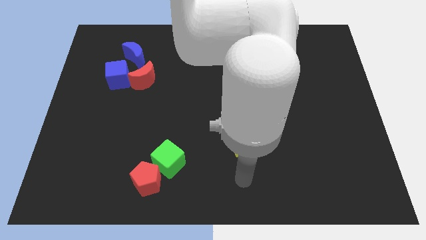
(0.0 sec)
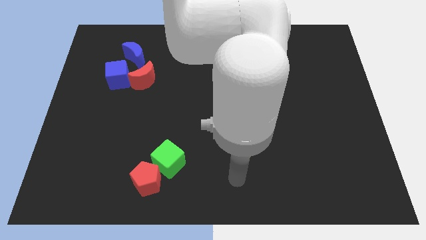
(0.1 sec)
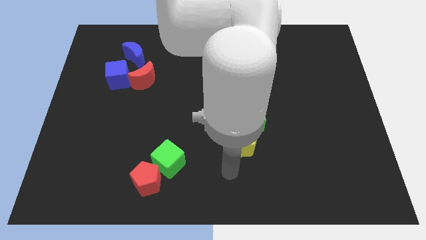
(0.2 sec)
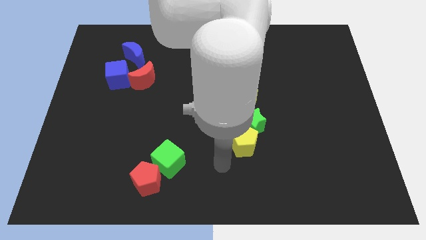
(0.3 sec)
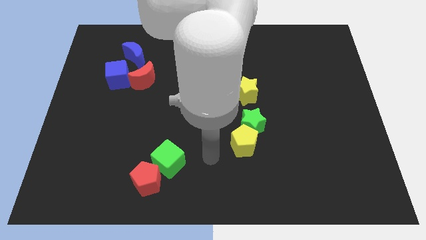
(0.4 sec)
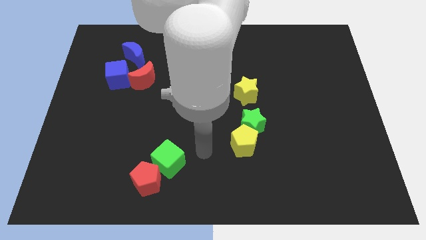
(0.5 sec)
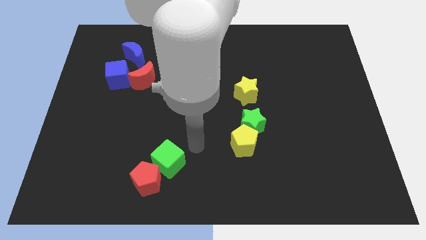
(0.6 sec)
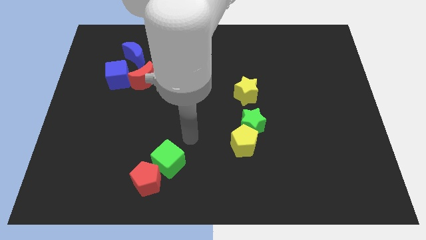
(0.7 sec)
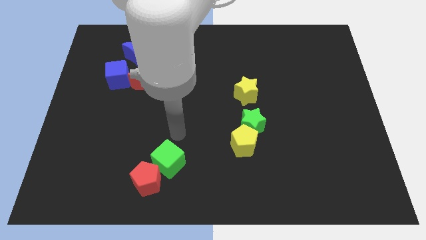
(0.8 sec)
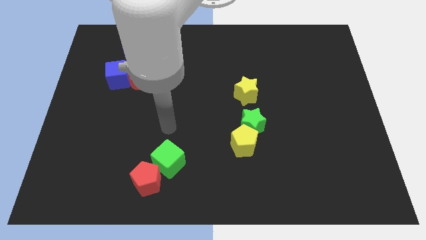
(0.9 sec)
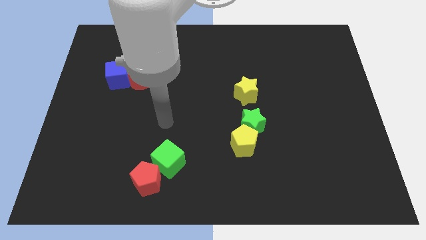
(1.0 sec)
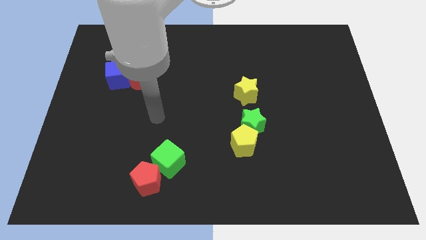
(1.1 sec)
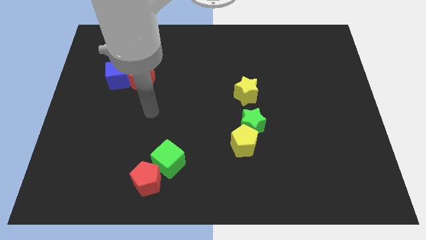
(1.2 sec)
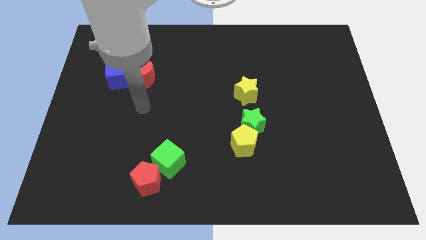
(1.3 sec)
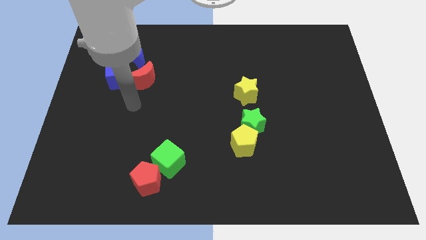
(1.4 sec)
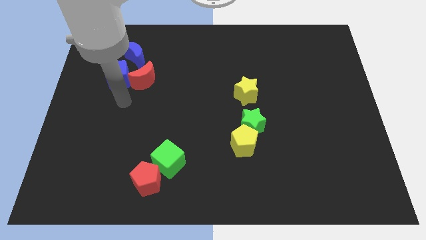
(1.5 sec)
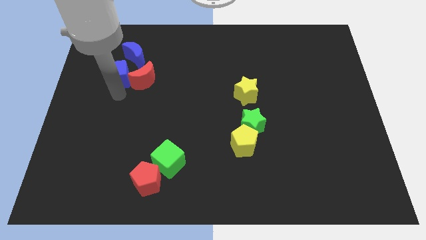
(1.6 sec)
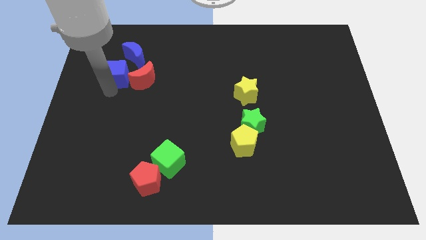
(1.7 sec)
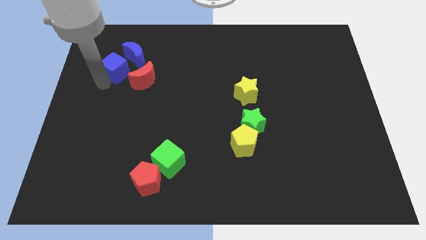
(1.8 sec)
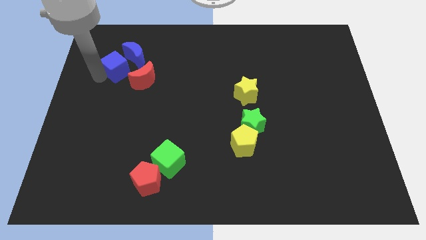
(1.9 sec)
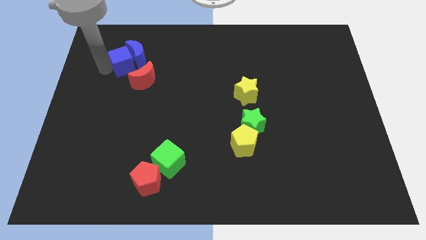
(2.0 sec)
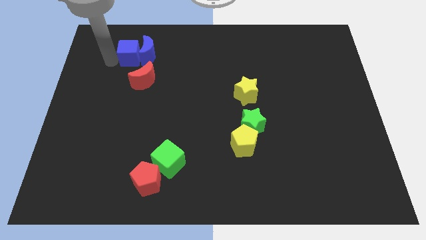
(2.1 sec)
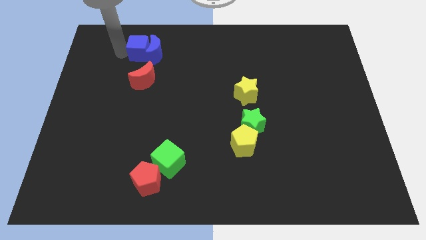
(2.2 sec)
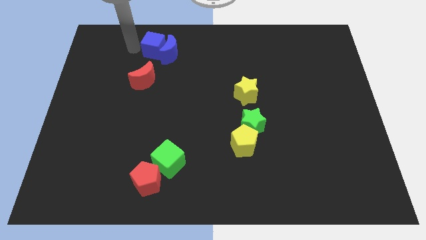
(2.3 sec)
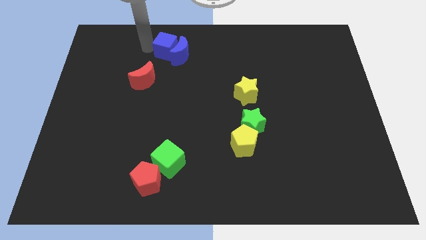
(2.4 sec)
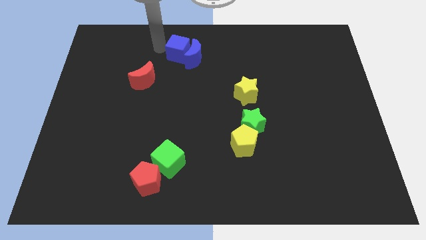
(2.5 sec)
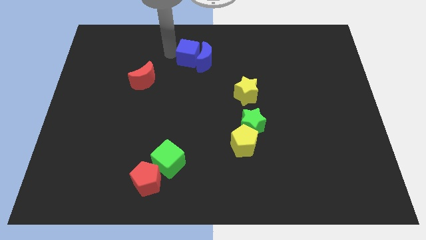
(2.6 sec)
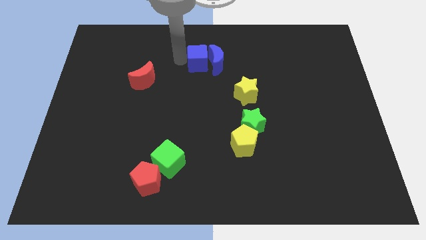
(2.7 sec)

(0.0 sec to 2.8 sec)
move the blue moon right

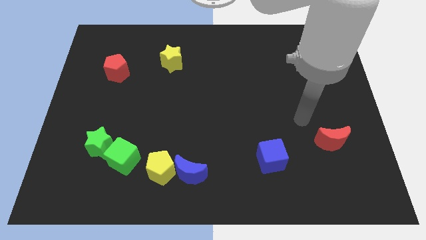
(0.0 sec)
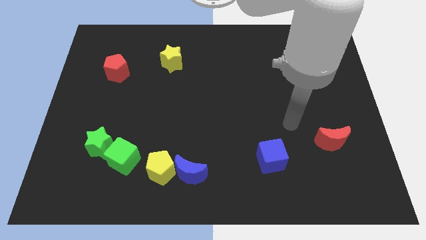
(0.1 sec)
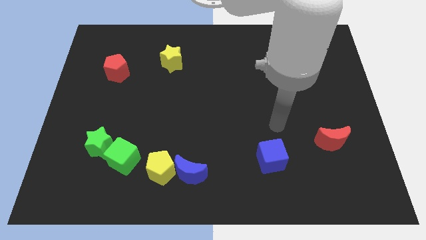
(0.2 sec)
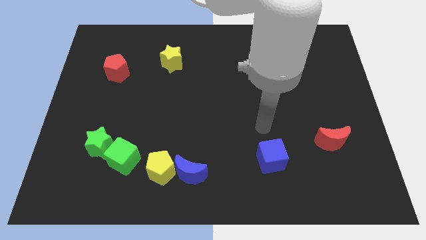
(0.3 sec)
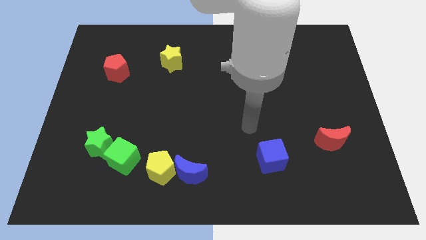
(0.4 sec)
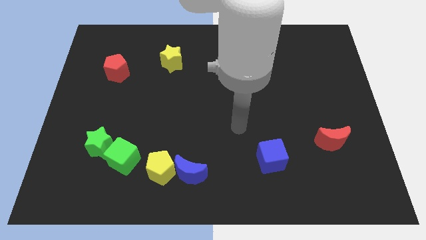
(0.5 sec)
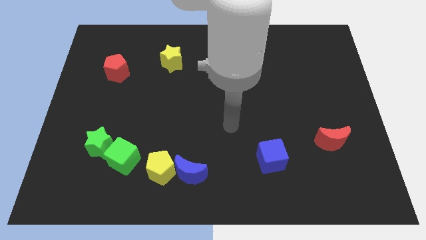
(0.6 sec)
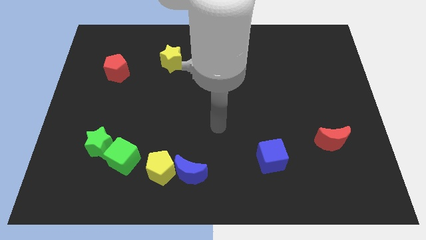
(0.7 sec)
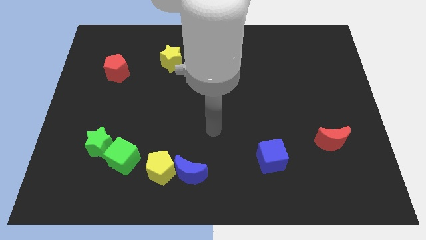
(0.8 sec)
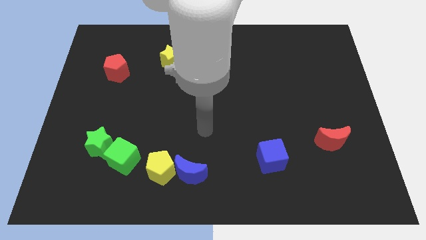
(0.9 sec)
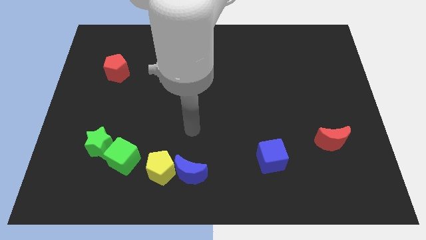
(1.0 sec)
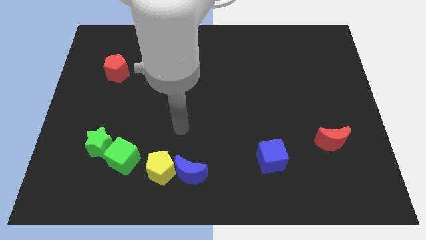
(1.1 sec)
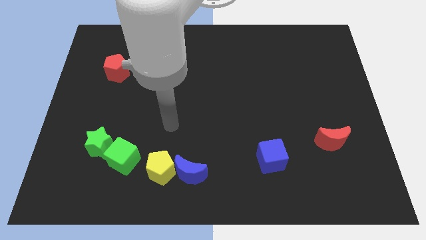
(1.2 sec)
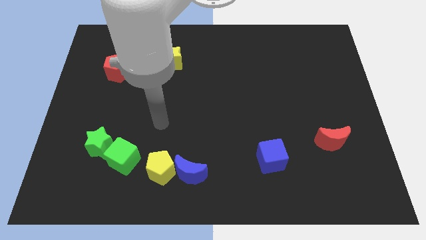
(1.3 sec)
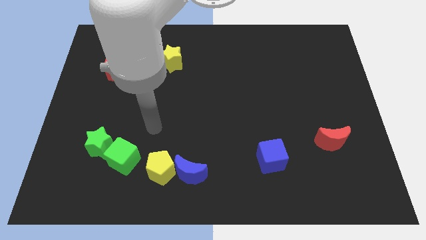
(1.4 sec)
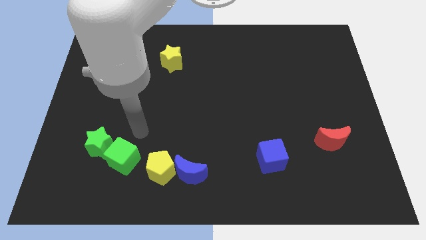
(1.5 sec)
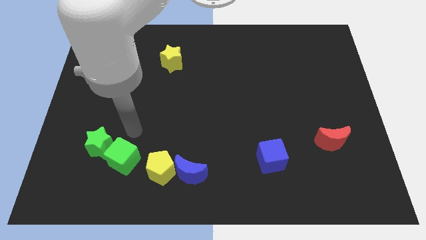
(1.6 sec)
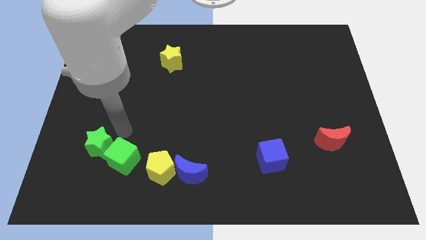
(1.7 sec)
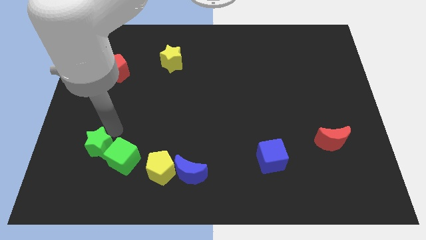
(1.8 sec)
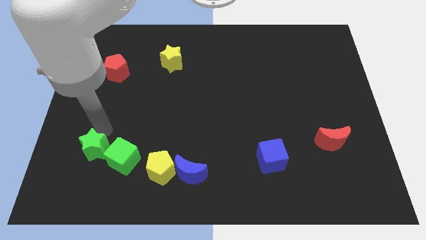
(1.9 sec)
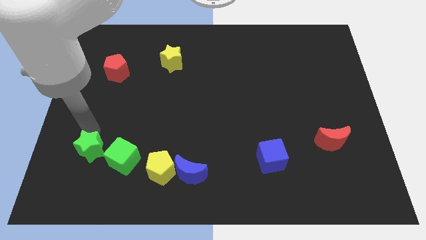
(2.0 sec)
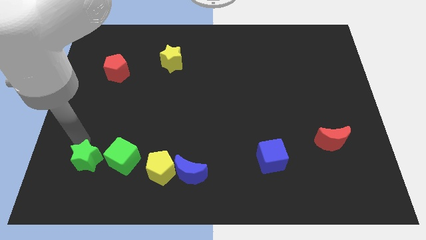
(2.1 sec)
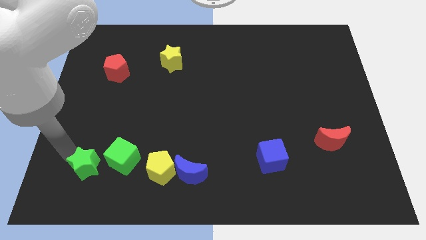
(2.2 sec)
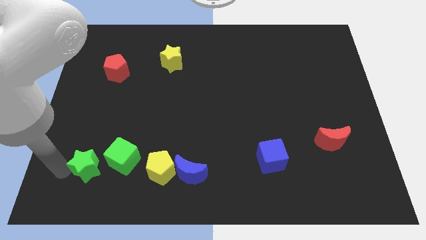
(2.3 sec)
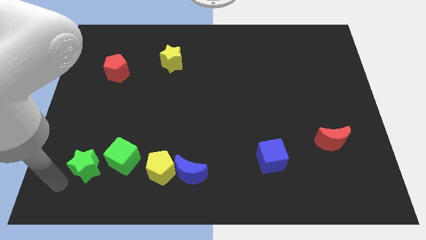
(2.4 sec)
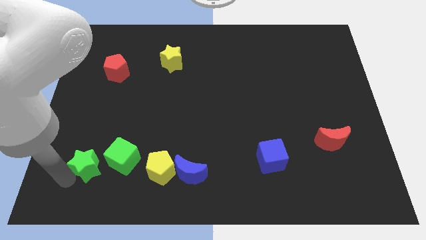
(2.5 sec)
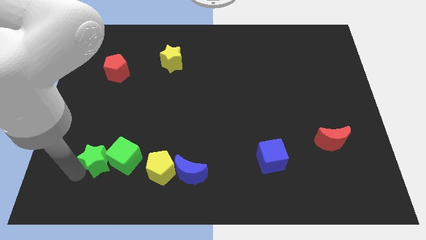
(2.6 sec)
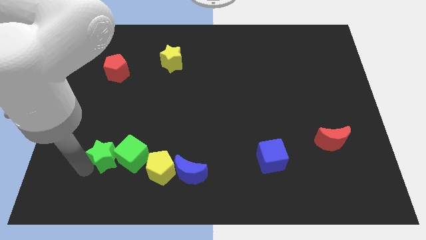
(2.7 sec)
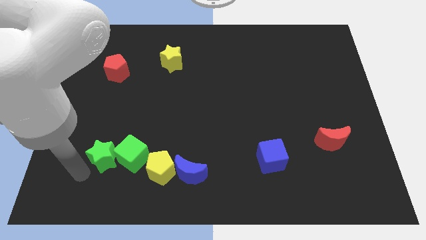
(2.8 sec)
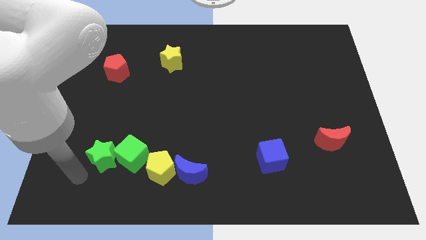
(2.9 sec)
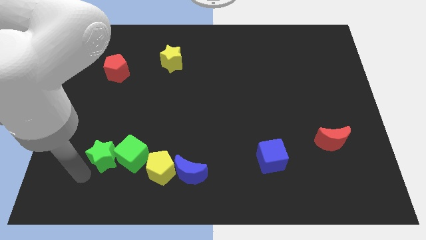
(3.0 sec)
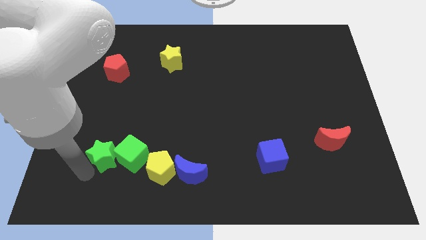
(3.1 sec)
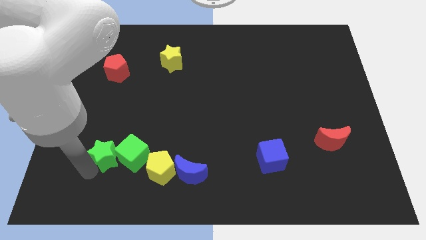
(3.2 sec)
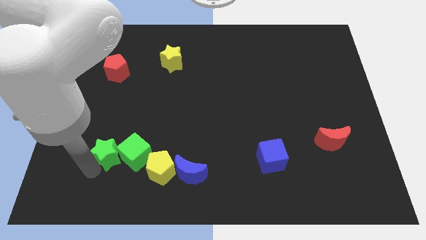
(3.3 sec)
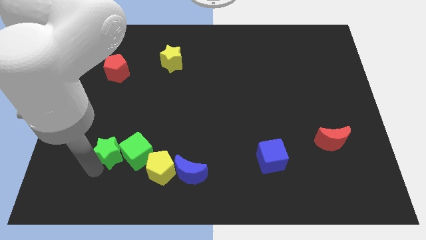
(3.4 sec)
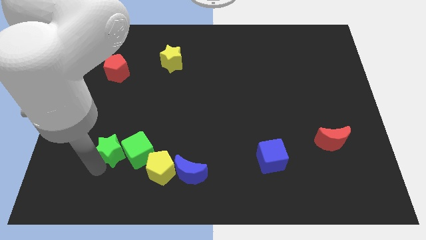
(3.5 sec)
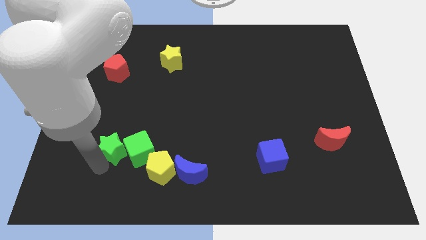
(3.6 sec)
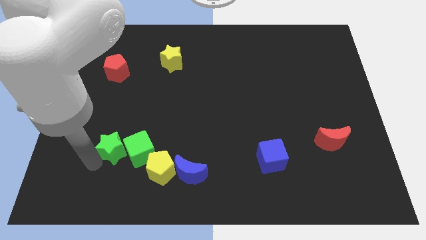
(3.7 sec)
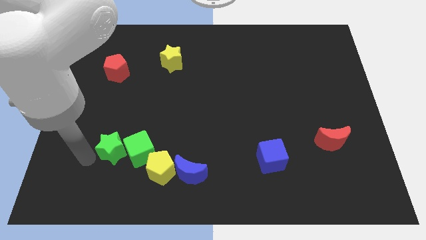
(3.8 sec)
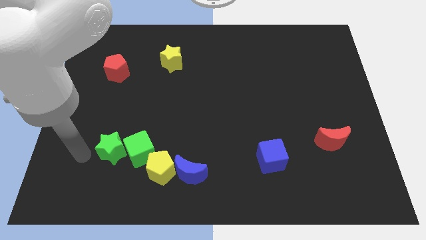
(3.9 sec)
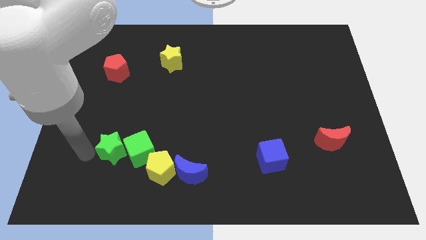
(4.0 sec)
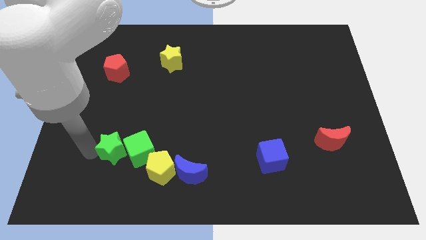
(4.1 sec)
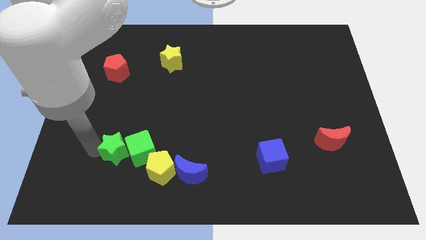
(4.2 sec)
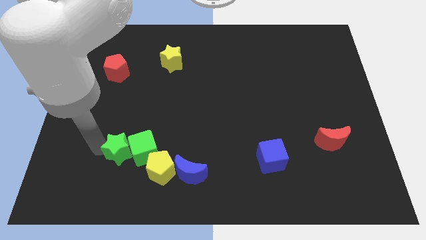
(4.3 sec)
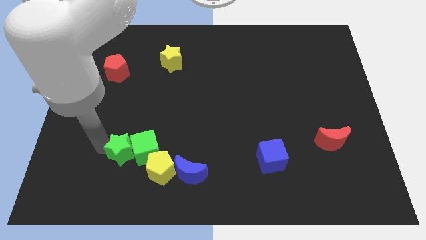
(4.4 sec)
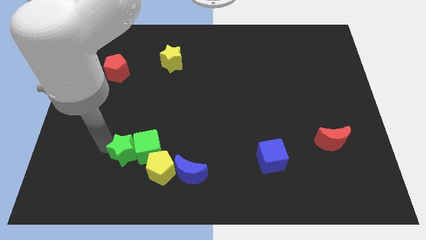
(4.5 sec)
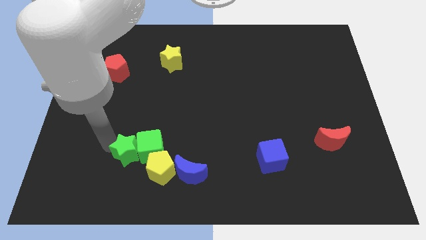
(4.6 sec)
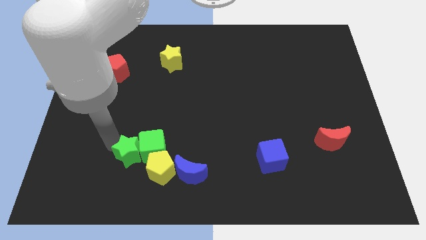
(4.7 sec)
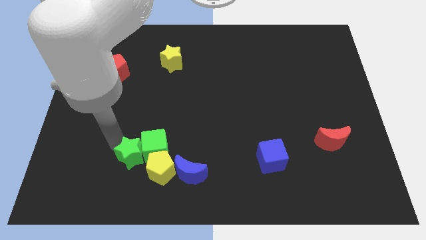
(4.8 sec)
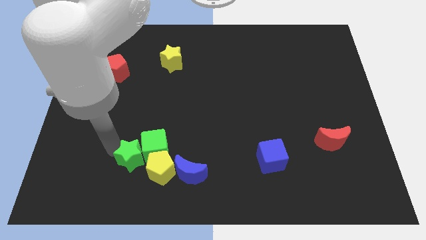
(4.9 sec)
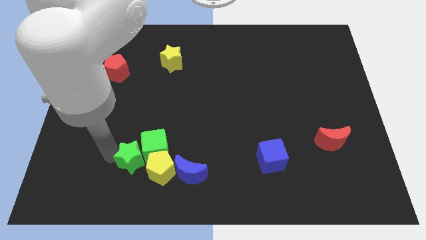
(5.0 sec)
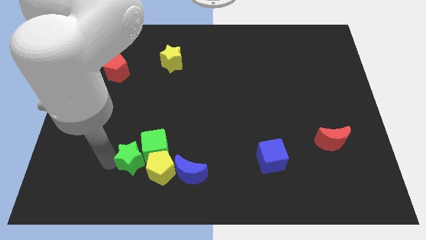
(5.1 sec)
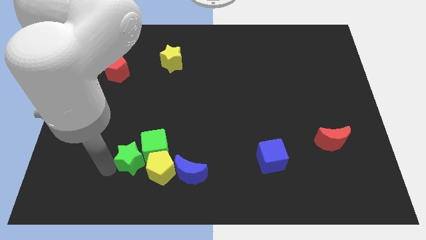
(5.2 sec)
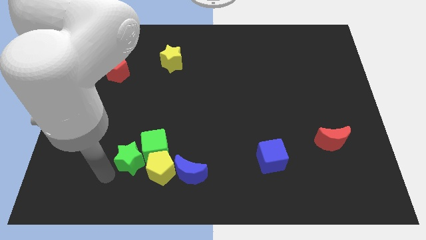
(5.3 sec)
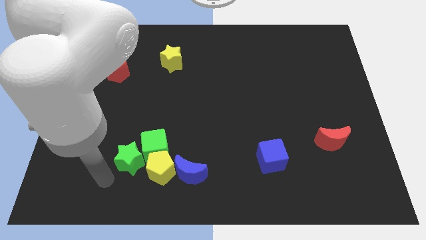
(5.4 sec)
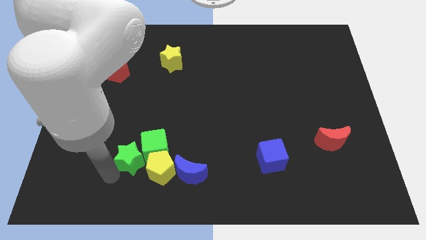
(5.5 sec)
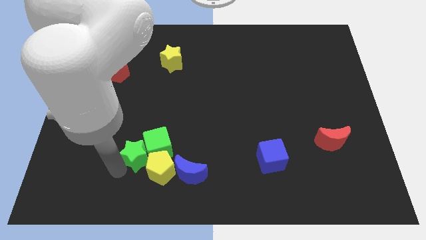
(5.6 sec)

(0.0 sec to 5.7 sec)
slide the green star to the right slightly
